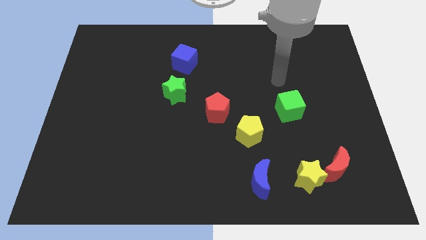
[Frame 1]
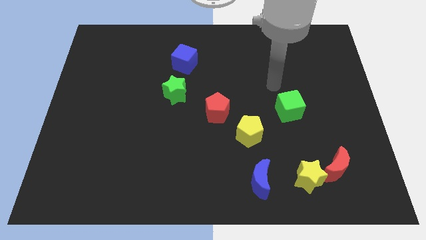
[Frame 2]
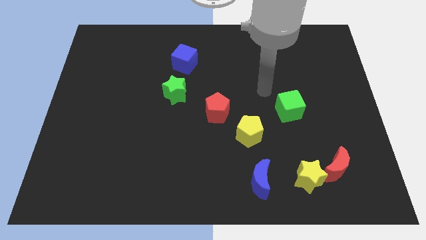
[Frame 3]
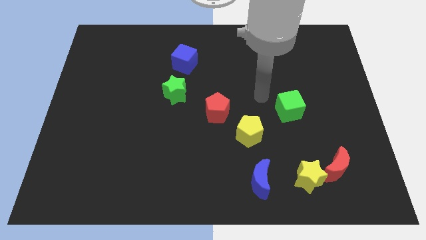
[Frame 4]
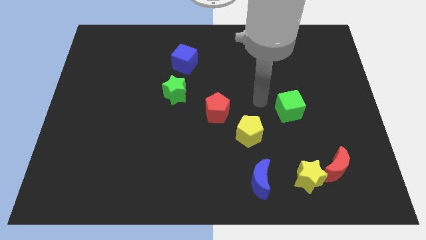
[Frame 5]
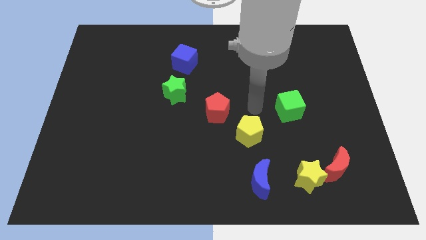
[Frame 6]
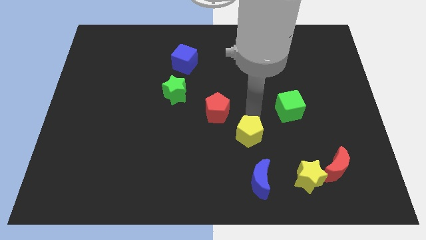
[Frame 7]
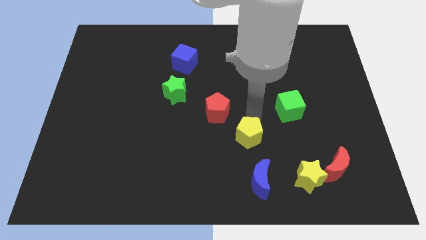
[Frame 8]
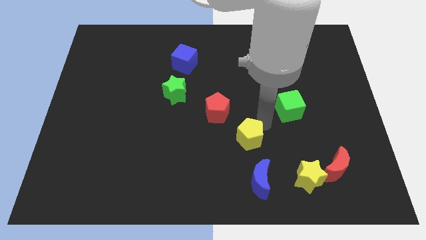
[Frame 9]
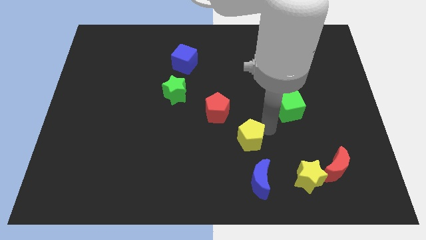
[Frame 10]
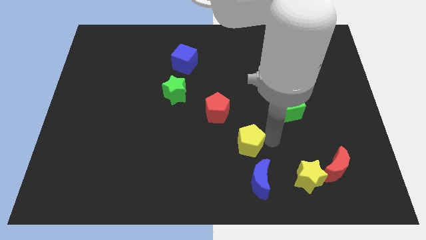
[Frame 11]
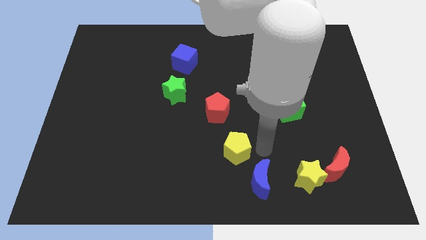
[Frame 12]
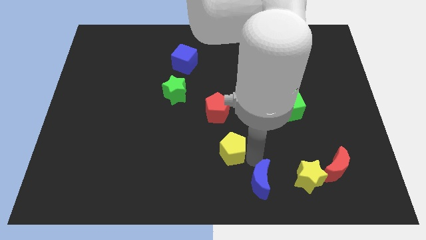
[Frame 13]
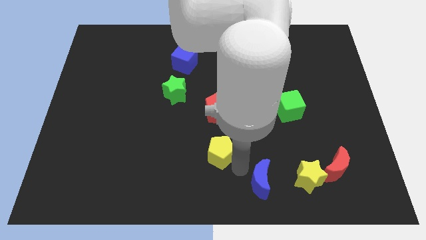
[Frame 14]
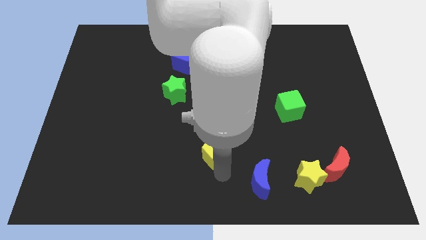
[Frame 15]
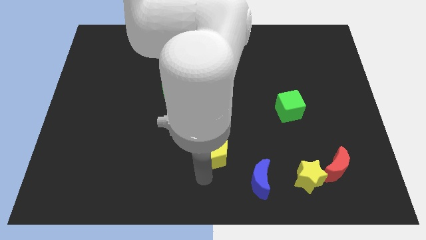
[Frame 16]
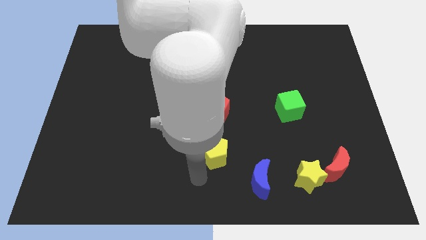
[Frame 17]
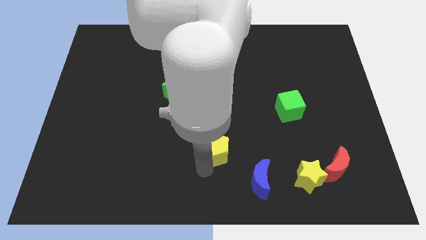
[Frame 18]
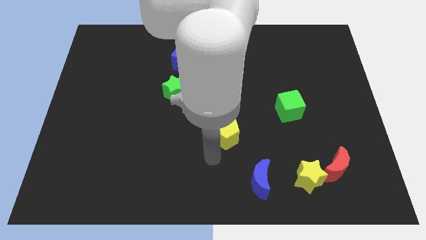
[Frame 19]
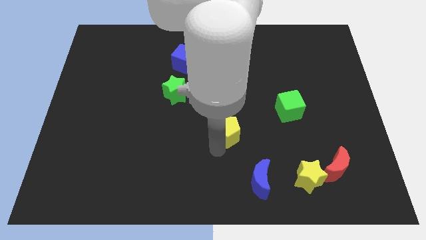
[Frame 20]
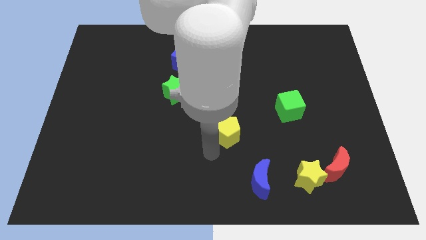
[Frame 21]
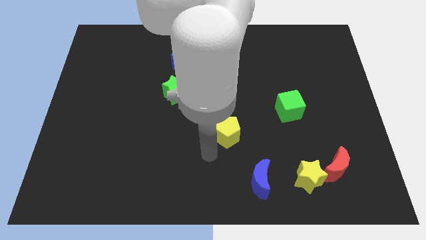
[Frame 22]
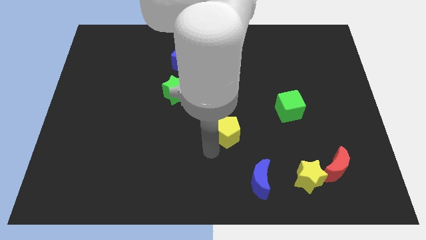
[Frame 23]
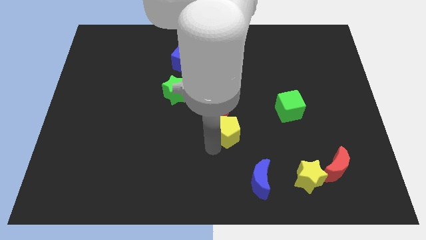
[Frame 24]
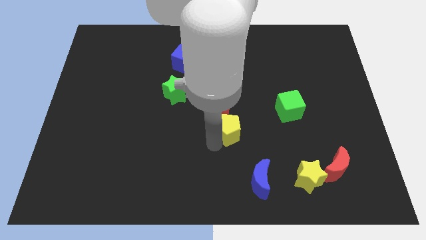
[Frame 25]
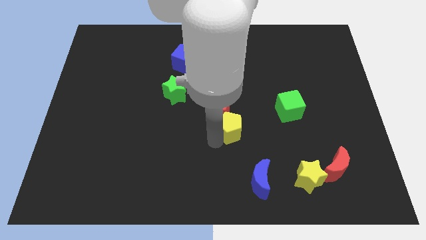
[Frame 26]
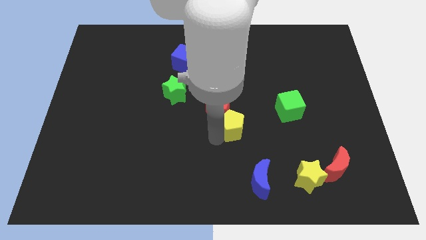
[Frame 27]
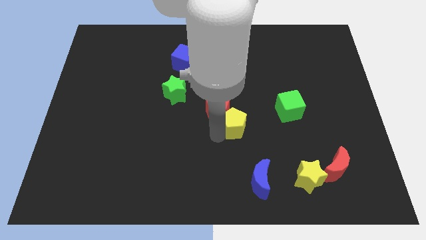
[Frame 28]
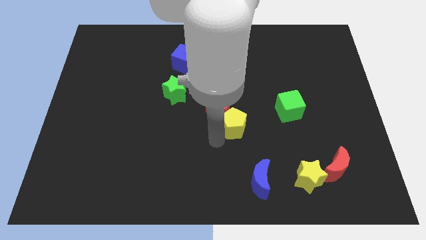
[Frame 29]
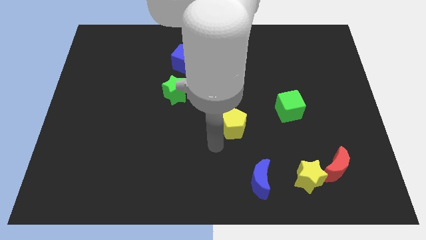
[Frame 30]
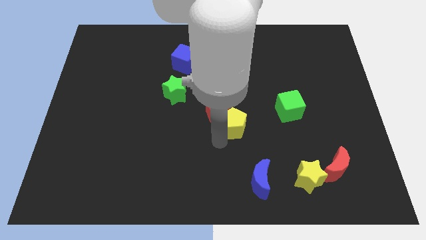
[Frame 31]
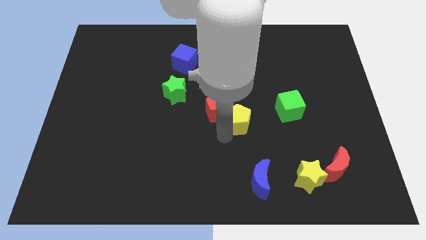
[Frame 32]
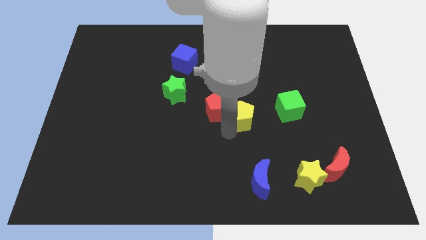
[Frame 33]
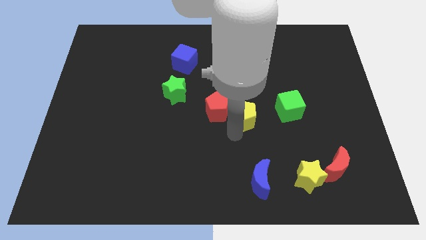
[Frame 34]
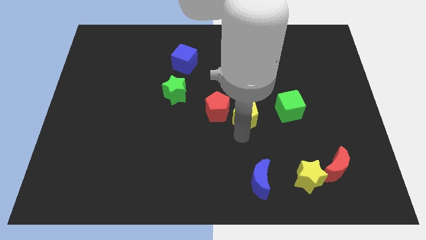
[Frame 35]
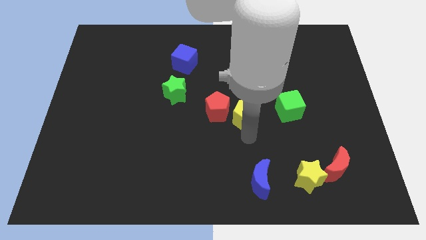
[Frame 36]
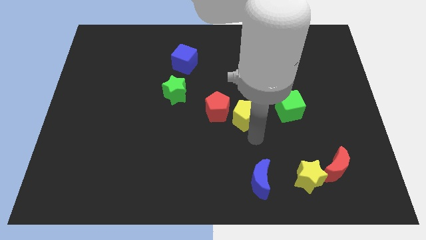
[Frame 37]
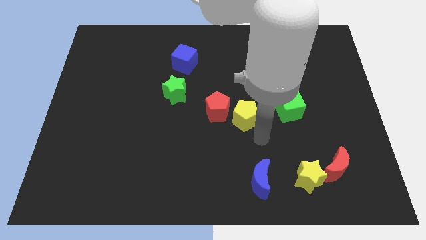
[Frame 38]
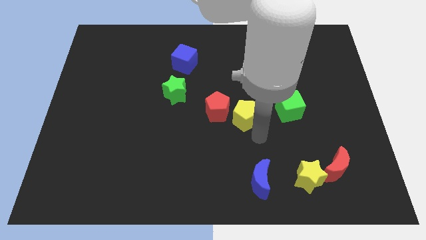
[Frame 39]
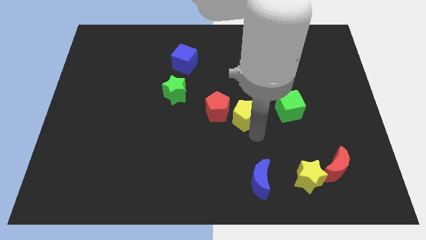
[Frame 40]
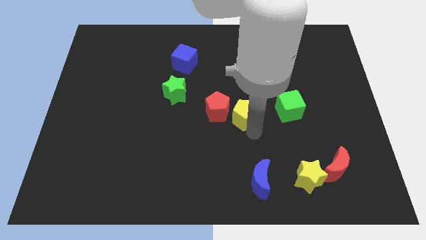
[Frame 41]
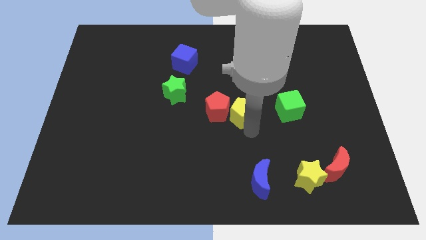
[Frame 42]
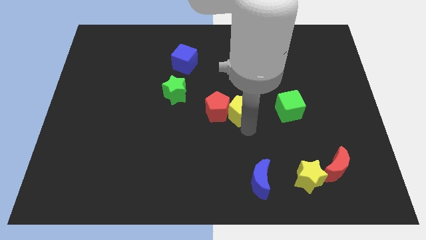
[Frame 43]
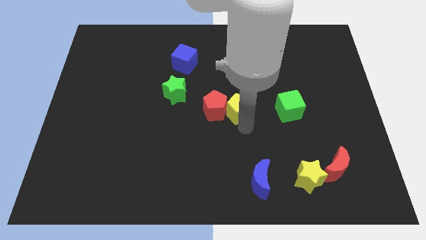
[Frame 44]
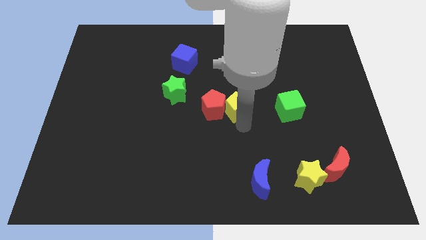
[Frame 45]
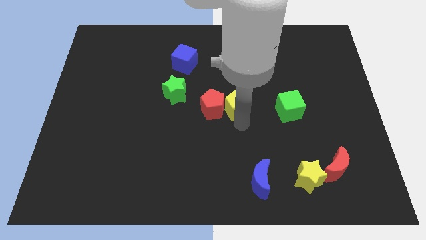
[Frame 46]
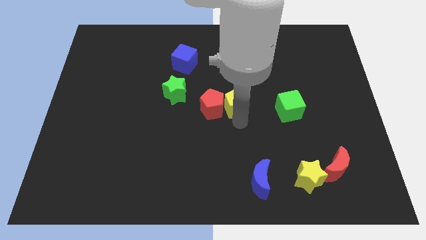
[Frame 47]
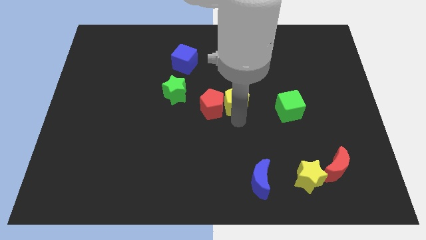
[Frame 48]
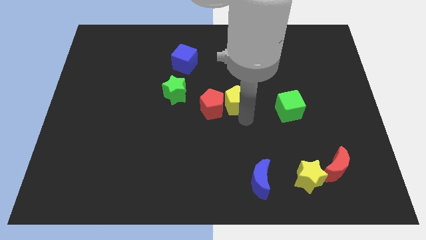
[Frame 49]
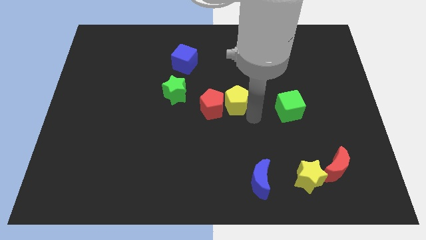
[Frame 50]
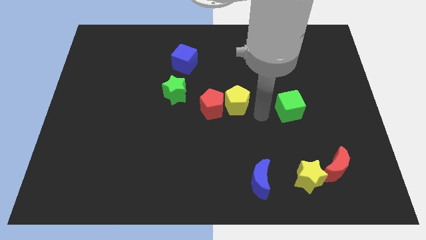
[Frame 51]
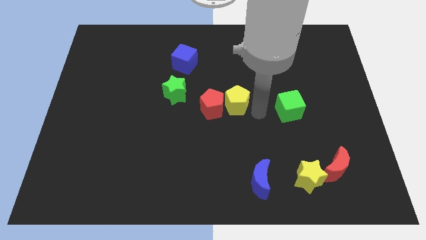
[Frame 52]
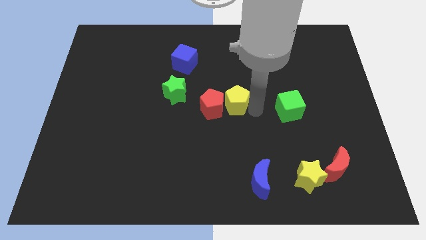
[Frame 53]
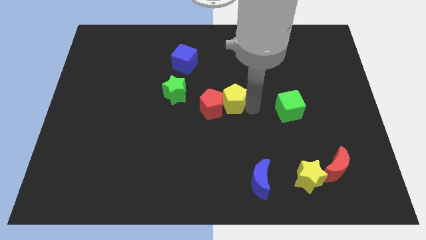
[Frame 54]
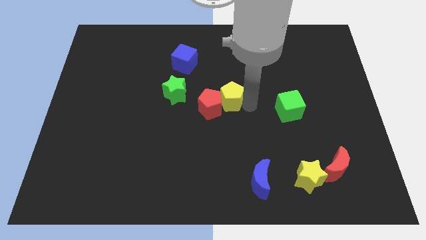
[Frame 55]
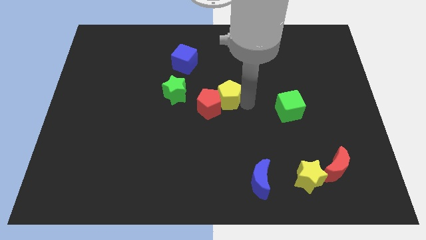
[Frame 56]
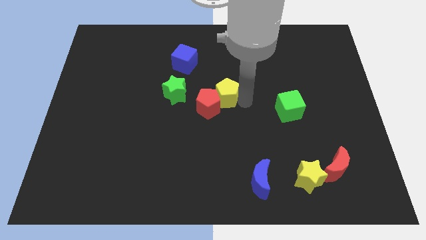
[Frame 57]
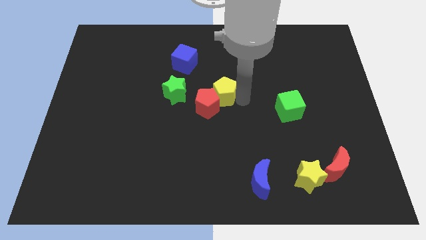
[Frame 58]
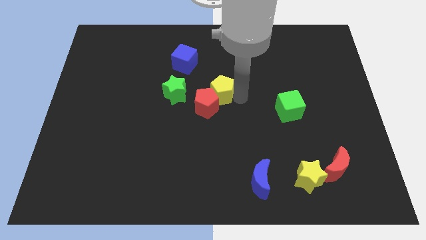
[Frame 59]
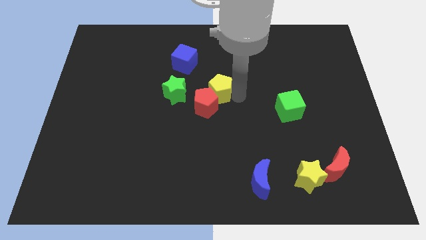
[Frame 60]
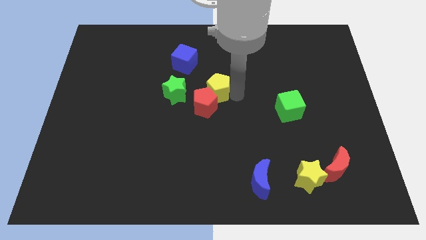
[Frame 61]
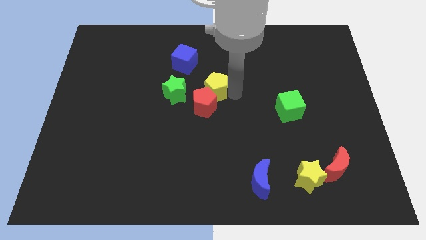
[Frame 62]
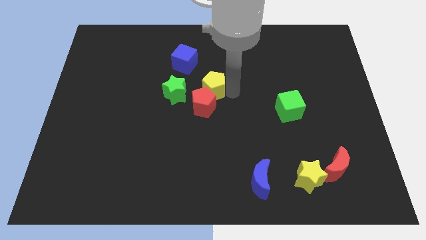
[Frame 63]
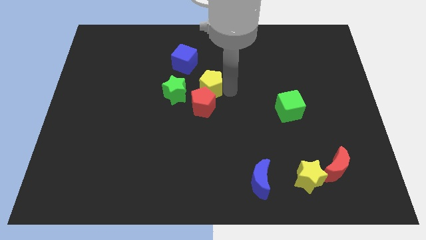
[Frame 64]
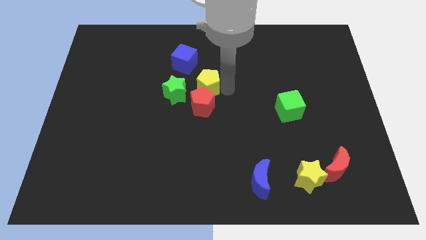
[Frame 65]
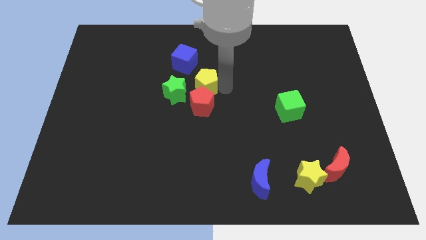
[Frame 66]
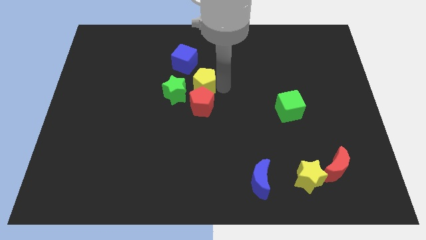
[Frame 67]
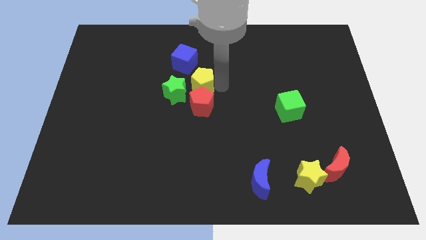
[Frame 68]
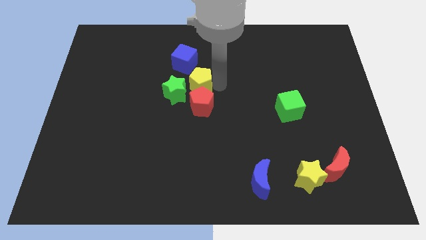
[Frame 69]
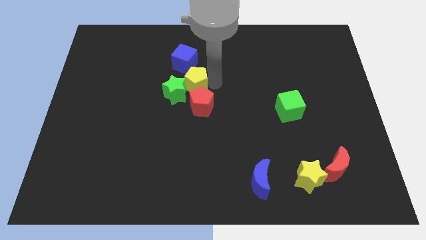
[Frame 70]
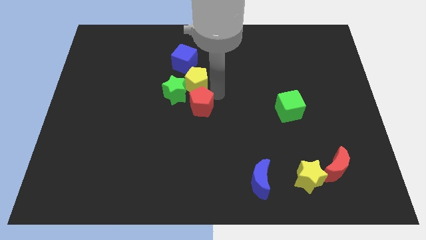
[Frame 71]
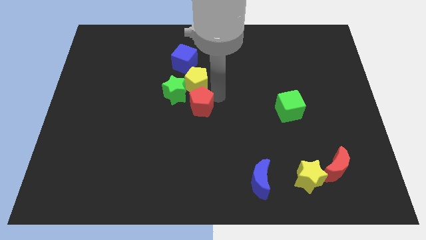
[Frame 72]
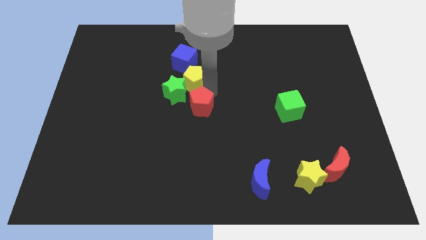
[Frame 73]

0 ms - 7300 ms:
push the yellow pentagon up and to the left diagonally

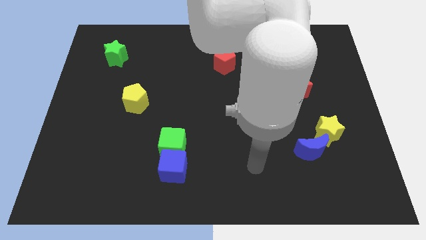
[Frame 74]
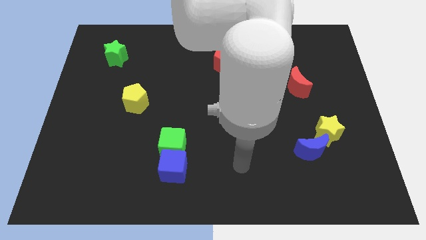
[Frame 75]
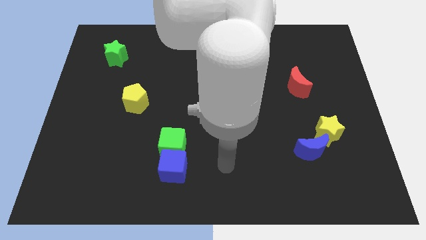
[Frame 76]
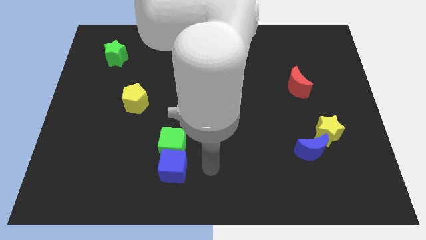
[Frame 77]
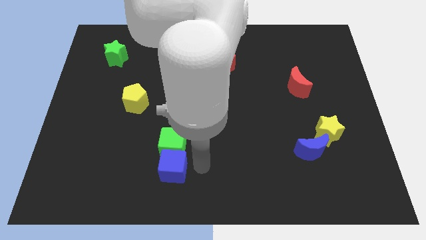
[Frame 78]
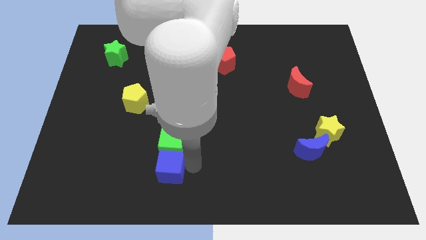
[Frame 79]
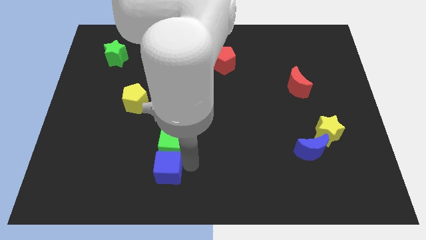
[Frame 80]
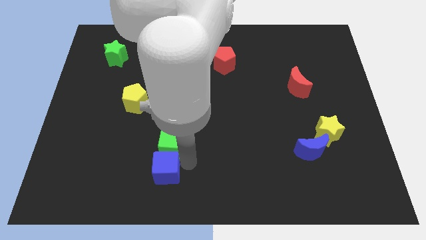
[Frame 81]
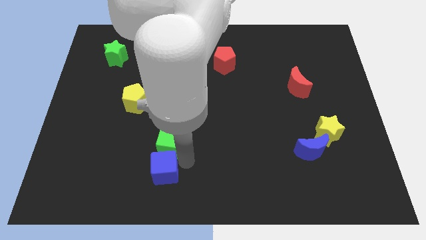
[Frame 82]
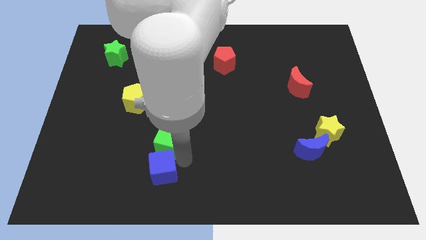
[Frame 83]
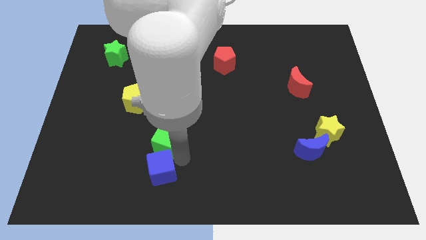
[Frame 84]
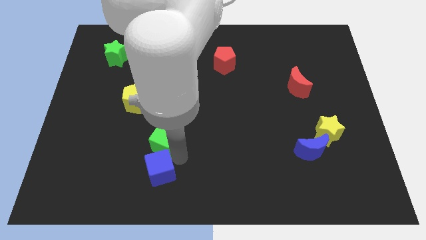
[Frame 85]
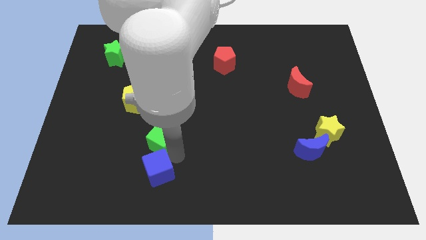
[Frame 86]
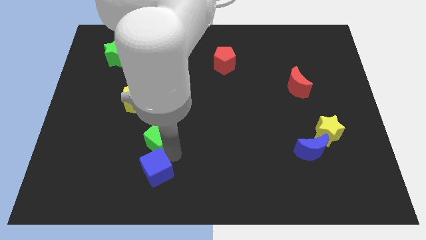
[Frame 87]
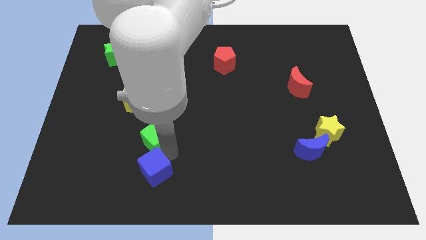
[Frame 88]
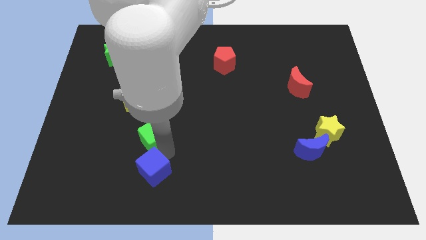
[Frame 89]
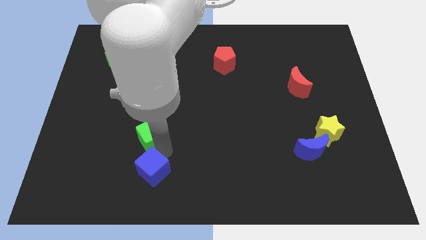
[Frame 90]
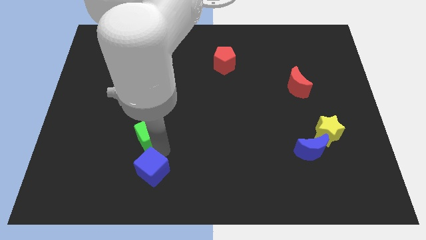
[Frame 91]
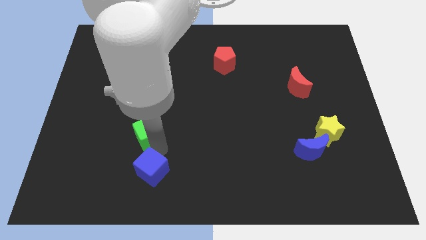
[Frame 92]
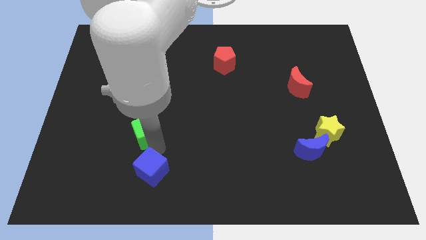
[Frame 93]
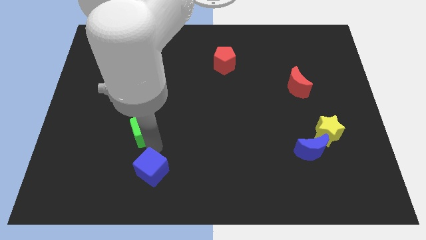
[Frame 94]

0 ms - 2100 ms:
slide the green cube upwards and to the left a bit
